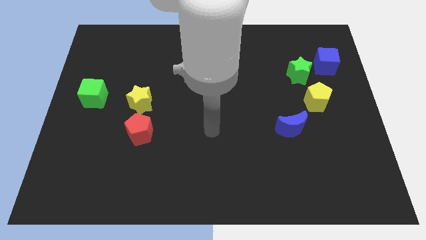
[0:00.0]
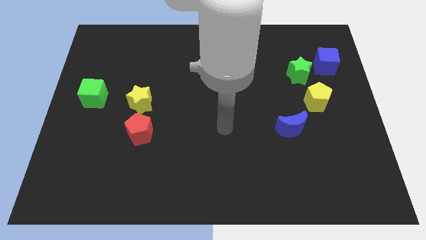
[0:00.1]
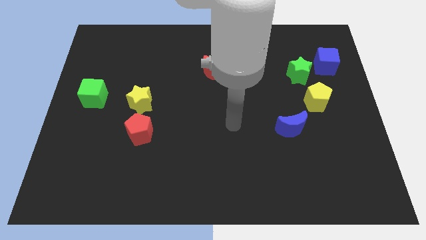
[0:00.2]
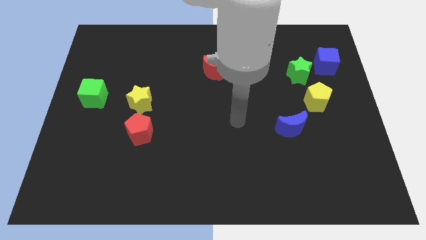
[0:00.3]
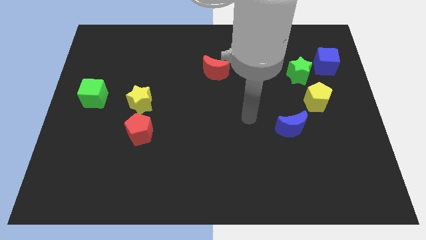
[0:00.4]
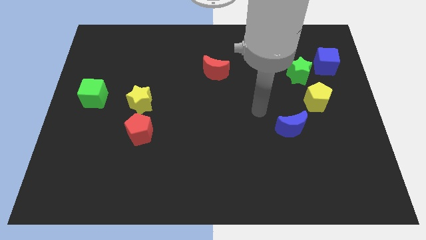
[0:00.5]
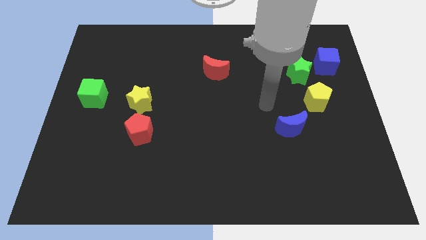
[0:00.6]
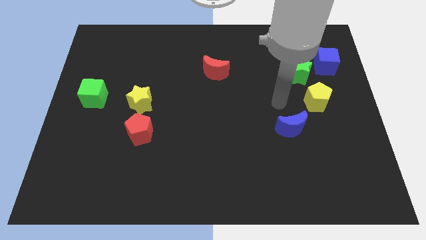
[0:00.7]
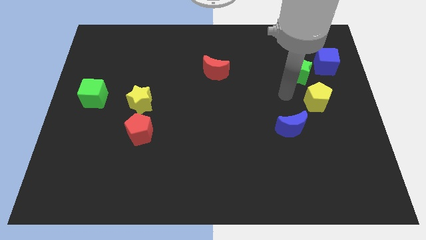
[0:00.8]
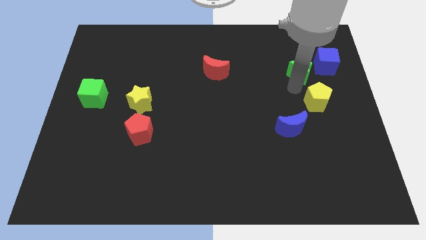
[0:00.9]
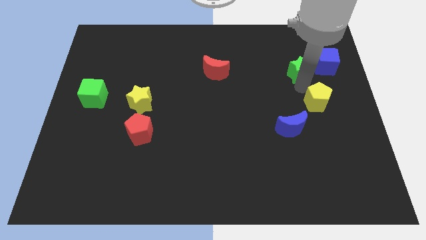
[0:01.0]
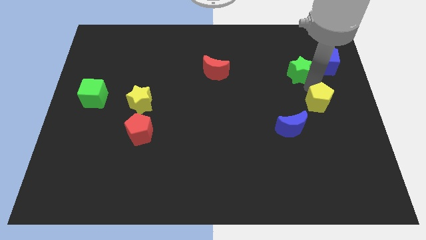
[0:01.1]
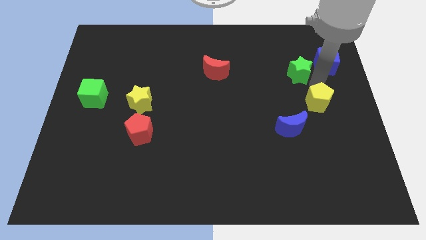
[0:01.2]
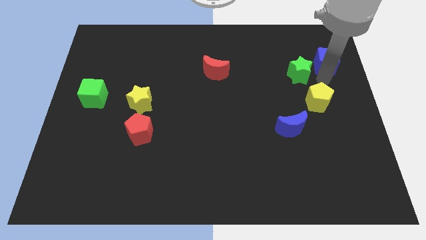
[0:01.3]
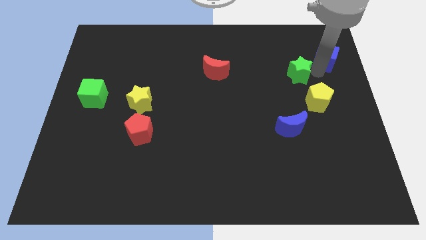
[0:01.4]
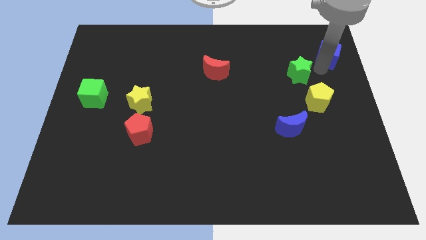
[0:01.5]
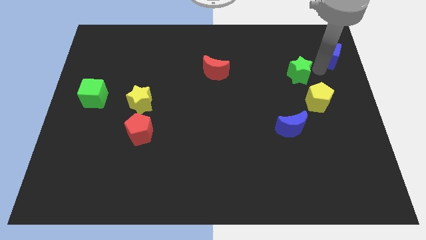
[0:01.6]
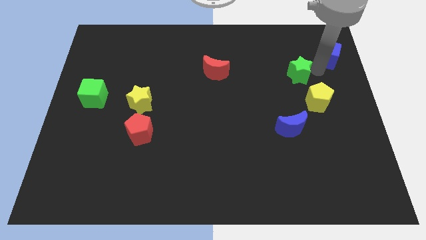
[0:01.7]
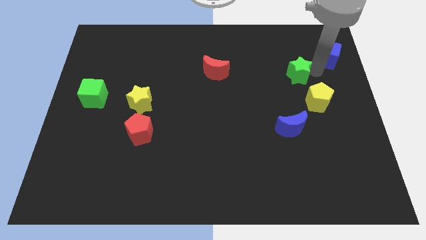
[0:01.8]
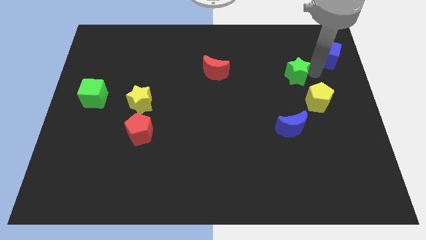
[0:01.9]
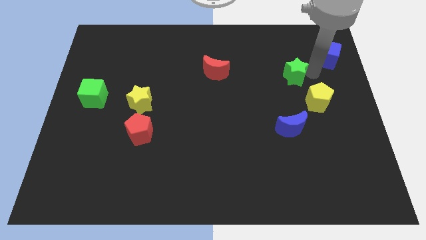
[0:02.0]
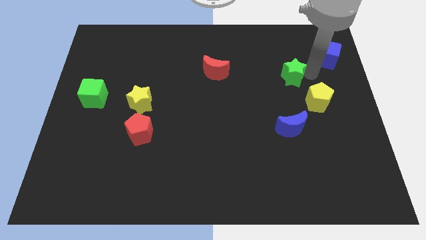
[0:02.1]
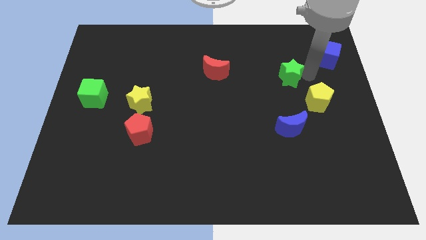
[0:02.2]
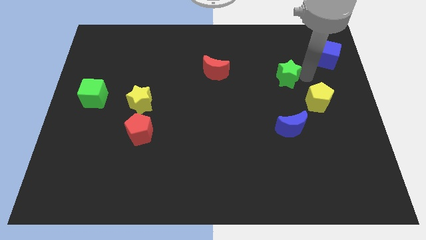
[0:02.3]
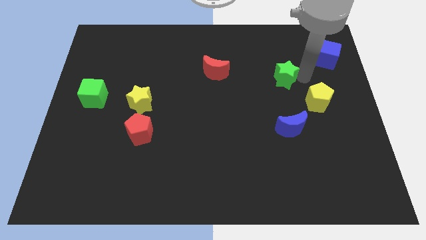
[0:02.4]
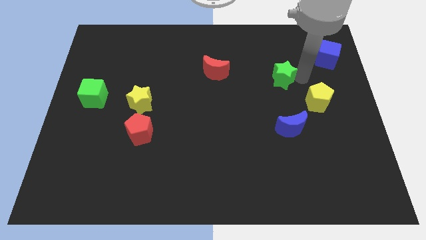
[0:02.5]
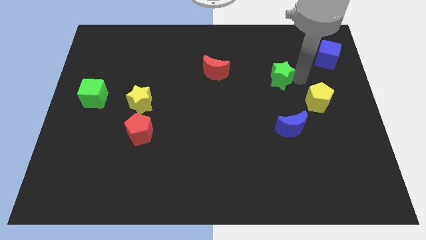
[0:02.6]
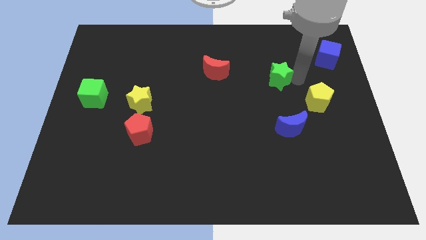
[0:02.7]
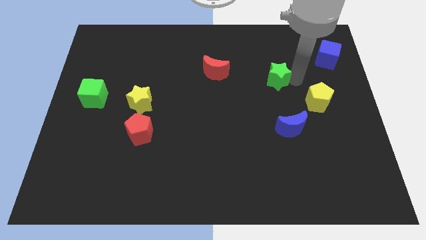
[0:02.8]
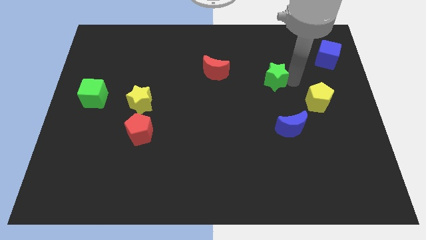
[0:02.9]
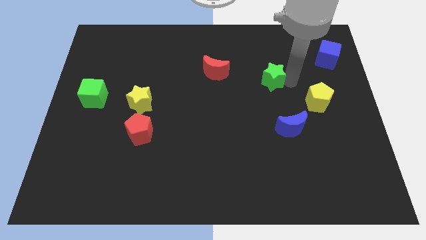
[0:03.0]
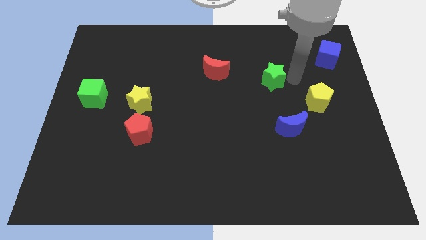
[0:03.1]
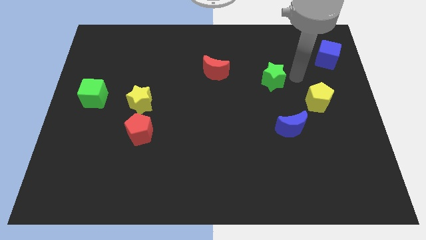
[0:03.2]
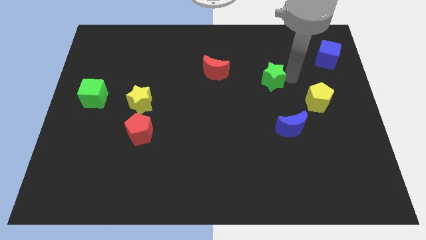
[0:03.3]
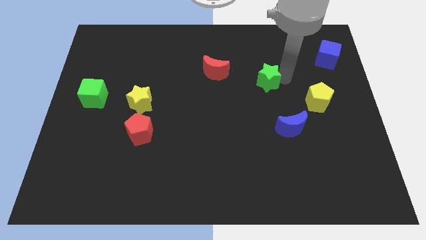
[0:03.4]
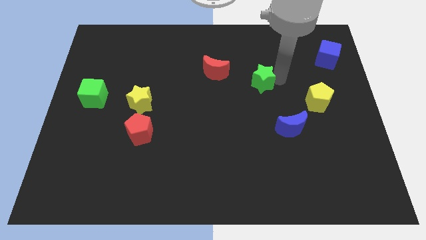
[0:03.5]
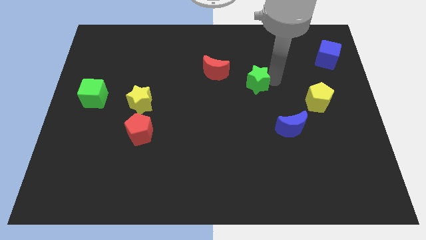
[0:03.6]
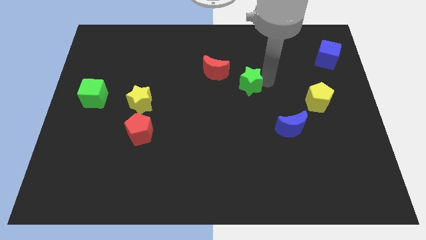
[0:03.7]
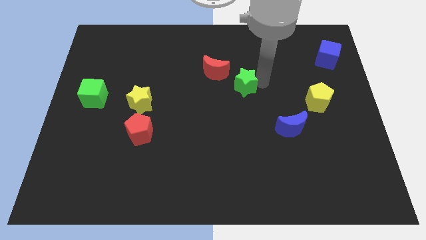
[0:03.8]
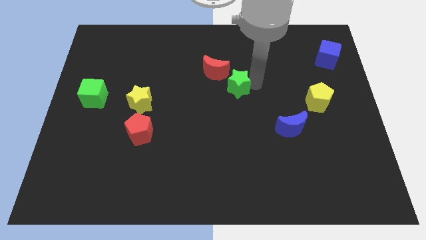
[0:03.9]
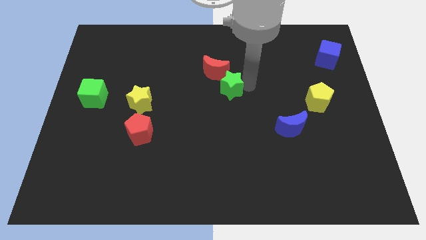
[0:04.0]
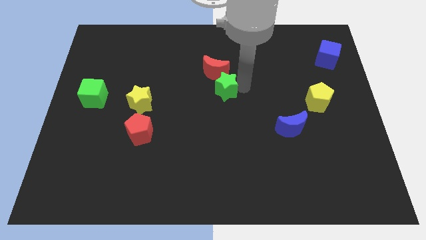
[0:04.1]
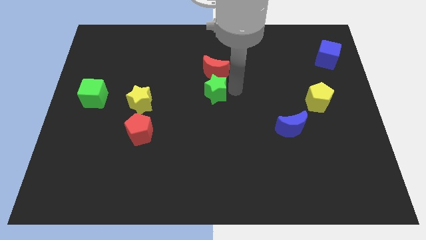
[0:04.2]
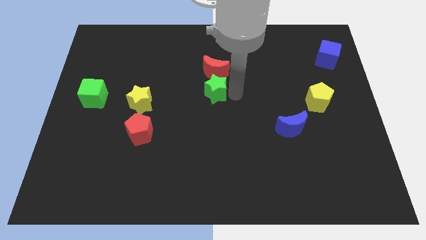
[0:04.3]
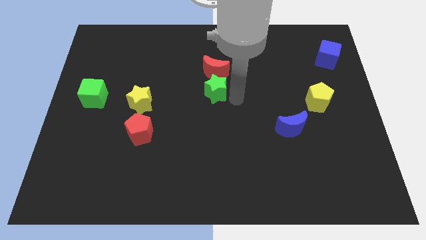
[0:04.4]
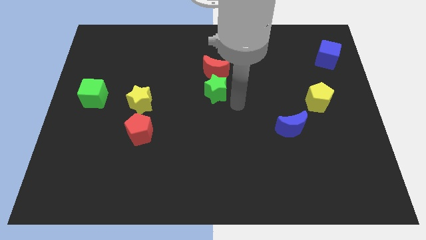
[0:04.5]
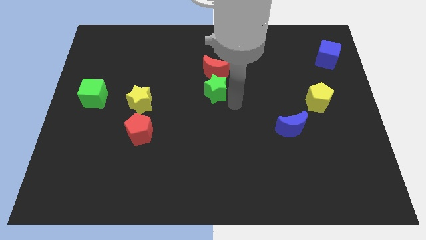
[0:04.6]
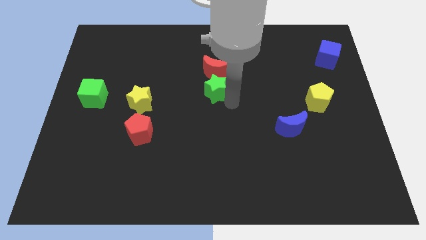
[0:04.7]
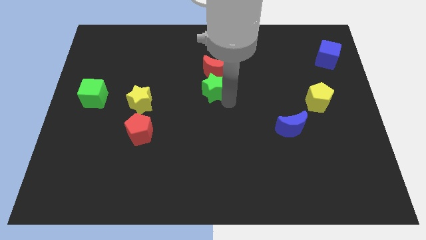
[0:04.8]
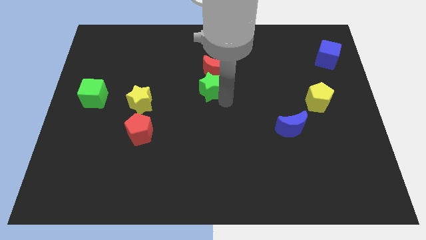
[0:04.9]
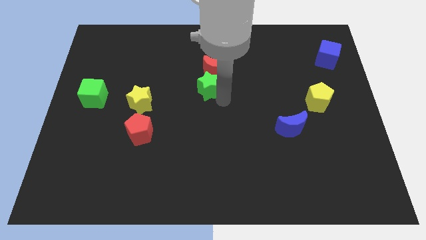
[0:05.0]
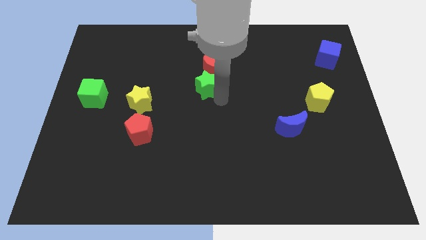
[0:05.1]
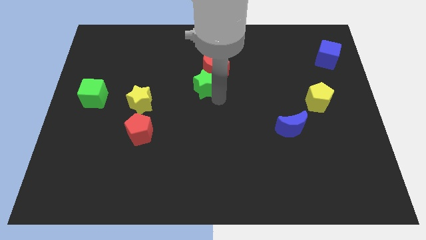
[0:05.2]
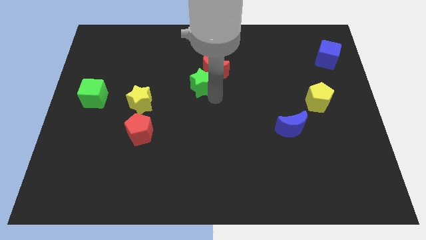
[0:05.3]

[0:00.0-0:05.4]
slide the green star left of the red moon

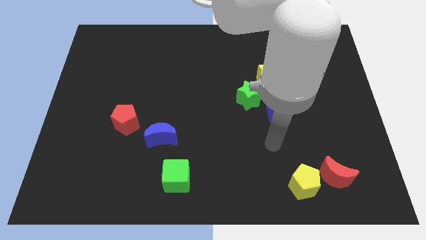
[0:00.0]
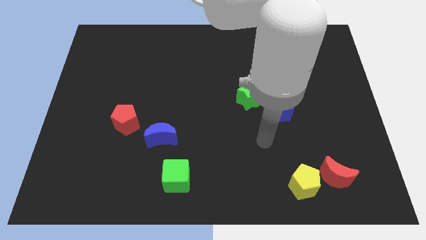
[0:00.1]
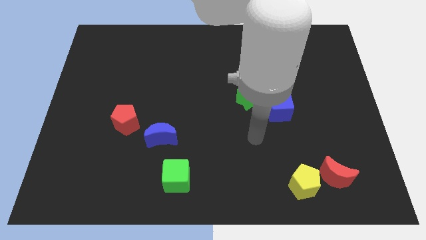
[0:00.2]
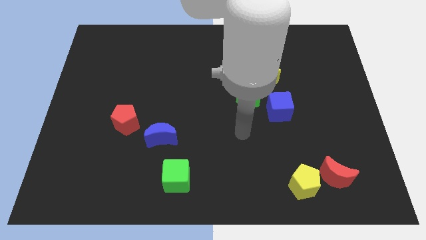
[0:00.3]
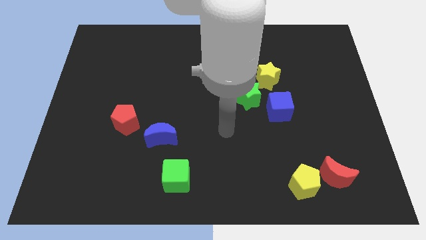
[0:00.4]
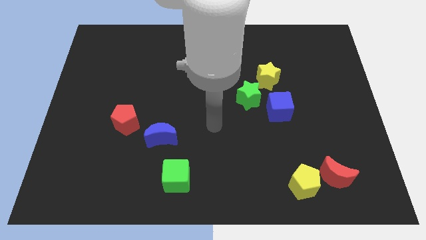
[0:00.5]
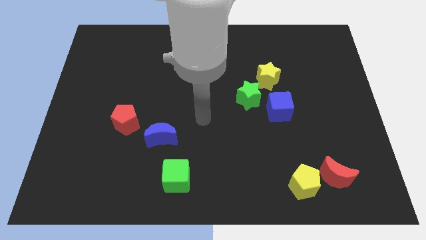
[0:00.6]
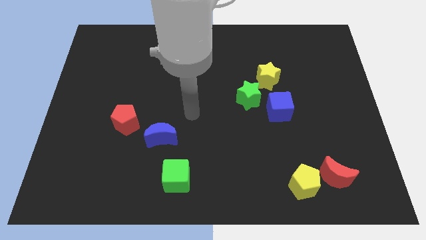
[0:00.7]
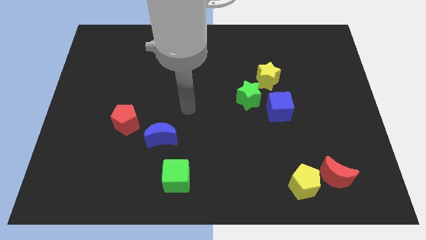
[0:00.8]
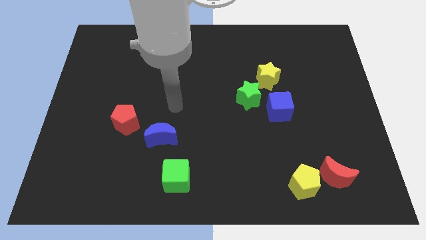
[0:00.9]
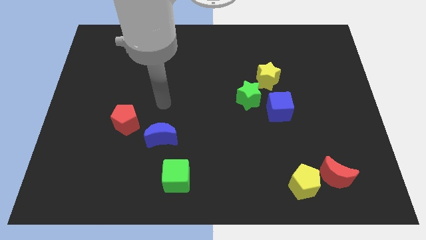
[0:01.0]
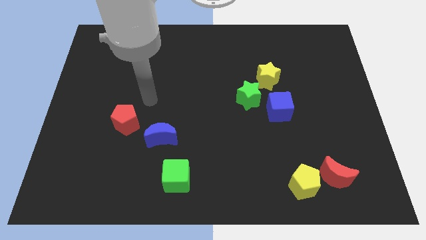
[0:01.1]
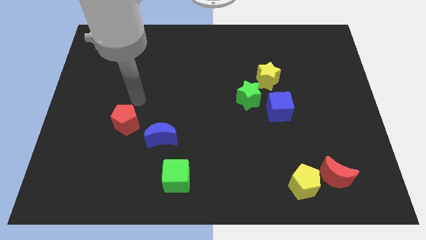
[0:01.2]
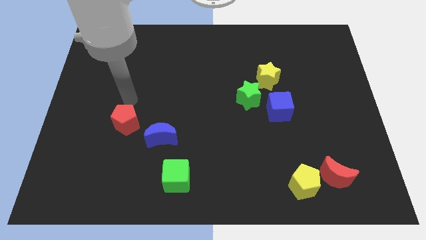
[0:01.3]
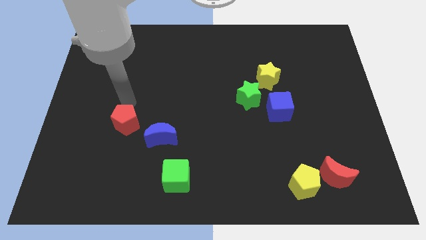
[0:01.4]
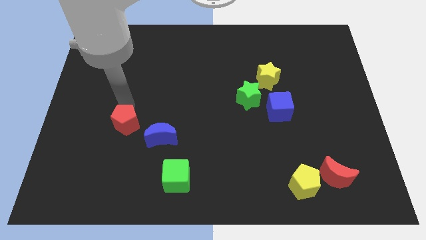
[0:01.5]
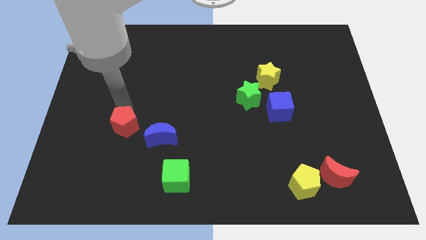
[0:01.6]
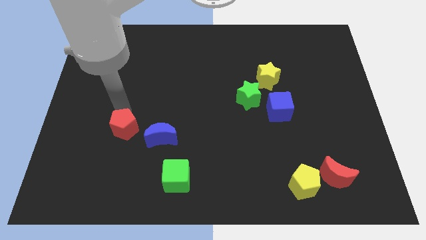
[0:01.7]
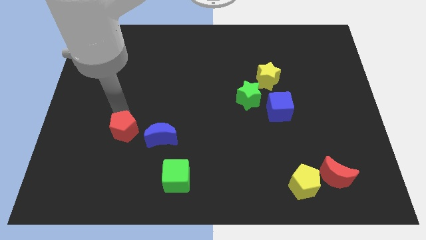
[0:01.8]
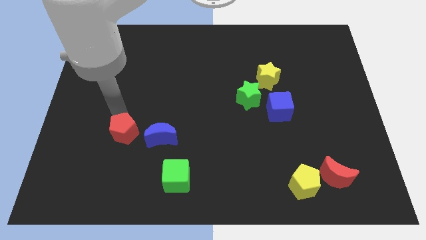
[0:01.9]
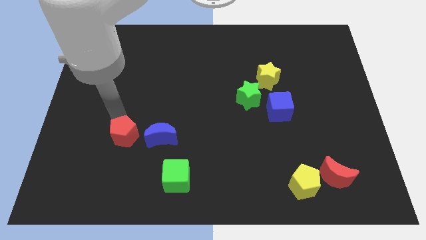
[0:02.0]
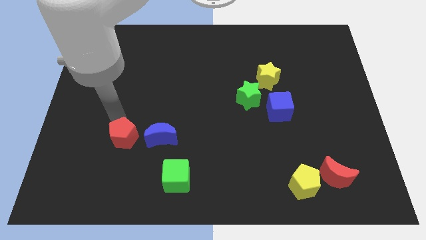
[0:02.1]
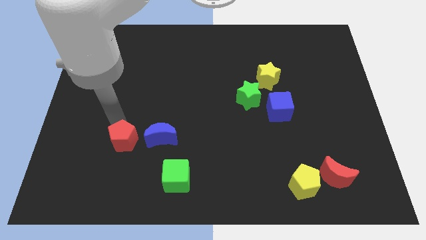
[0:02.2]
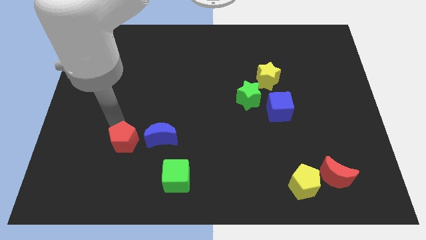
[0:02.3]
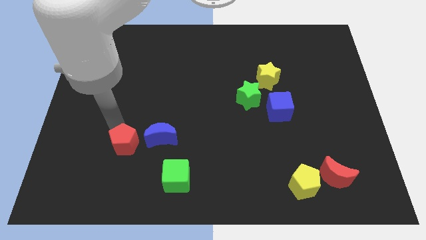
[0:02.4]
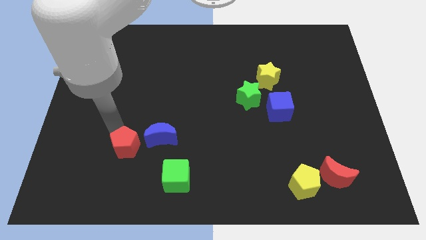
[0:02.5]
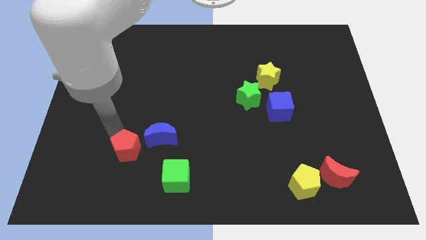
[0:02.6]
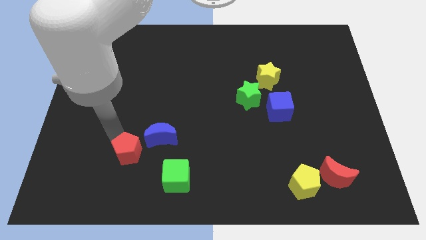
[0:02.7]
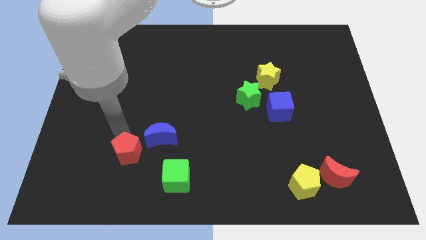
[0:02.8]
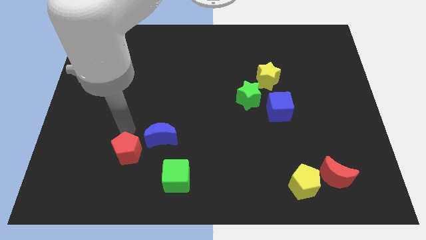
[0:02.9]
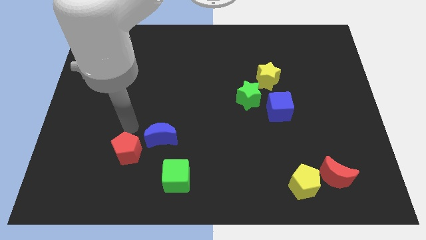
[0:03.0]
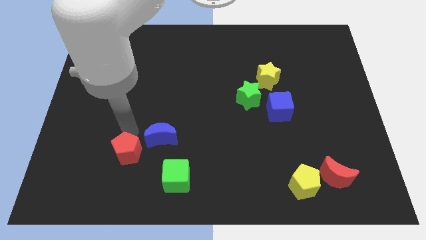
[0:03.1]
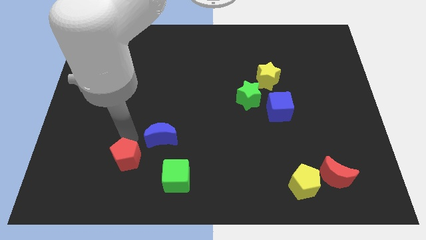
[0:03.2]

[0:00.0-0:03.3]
slide the red pentagon just left of the green cube
